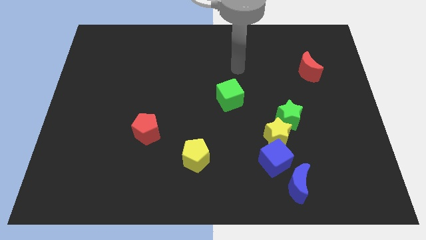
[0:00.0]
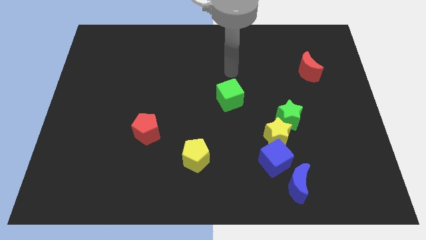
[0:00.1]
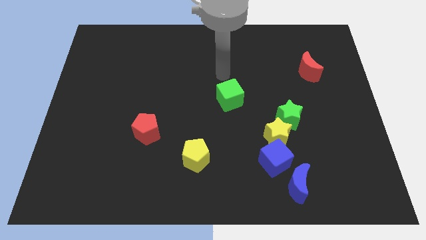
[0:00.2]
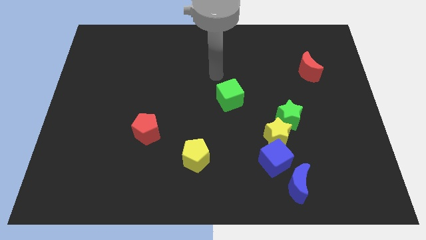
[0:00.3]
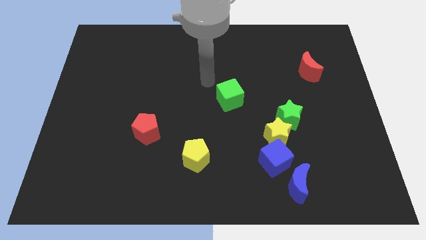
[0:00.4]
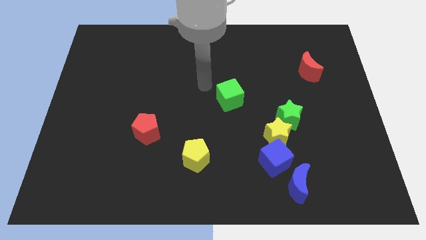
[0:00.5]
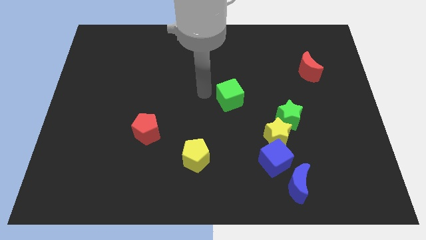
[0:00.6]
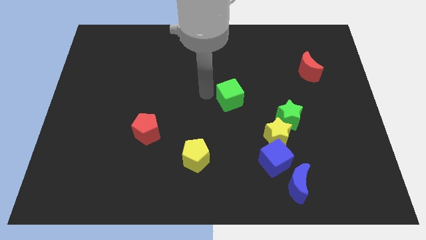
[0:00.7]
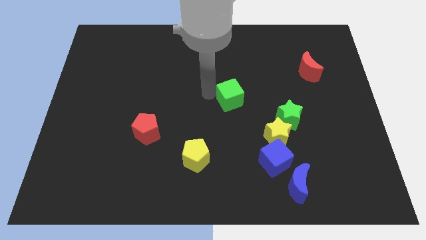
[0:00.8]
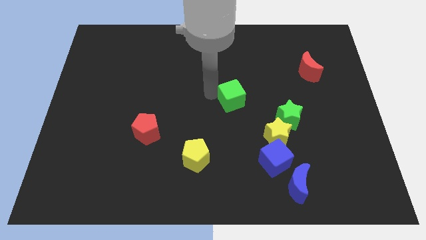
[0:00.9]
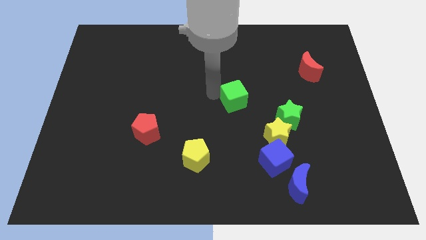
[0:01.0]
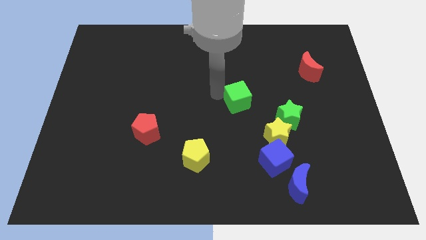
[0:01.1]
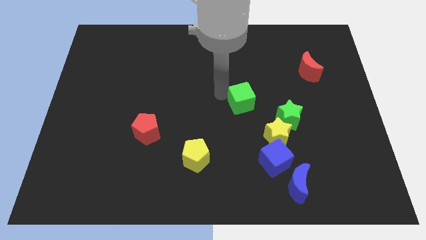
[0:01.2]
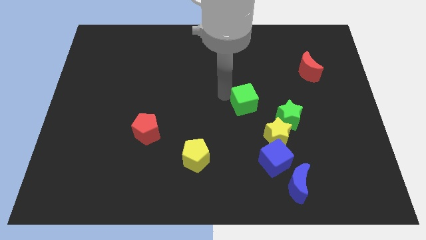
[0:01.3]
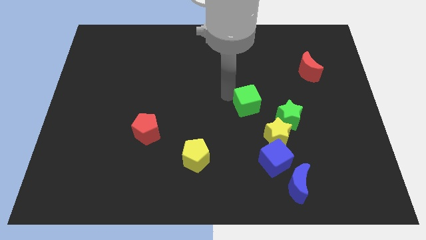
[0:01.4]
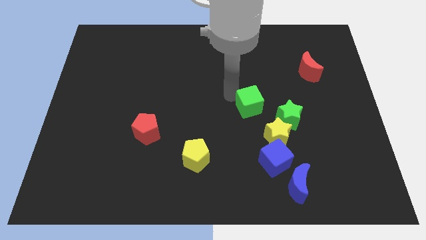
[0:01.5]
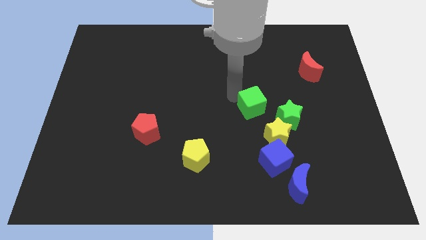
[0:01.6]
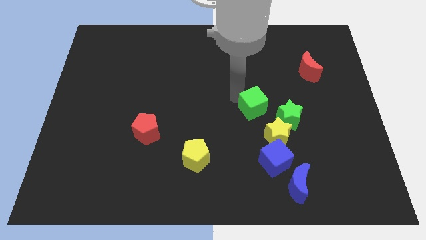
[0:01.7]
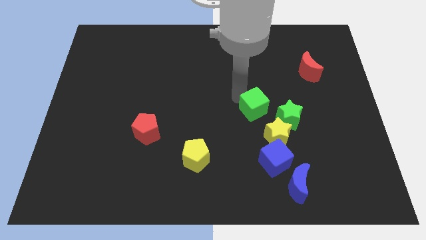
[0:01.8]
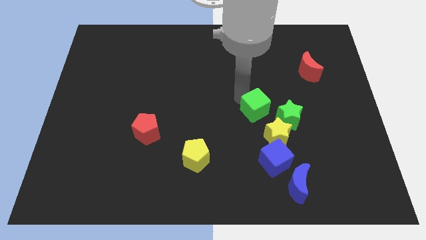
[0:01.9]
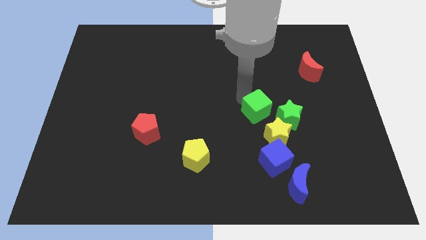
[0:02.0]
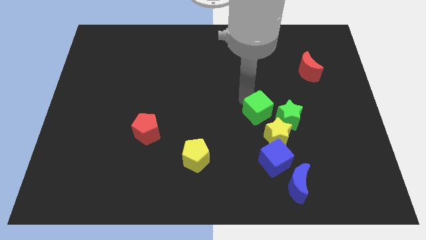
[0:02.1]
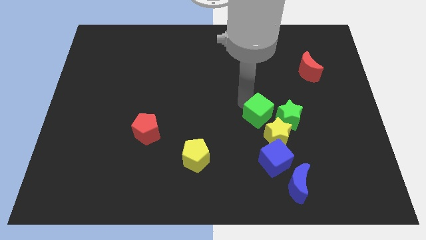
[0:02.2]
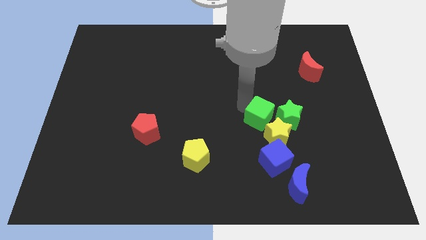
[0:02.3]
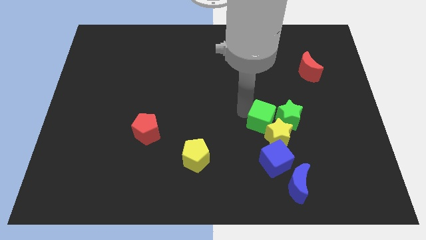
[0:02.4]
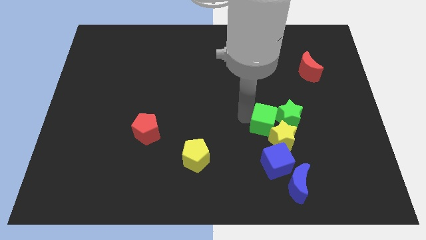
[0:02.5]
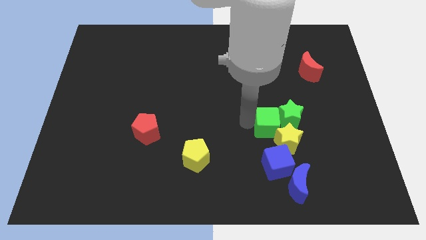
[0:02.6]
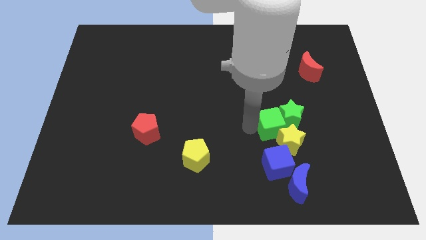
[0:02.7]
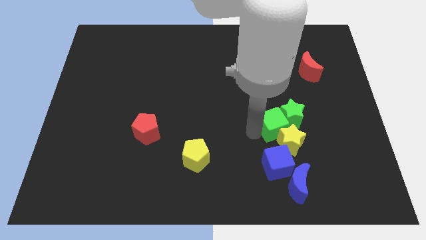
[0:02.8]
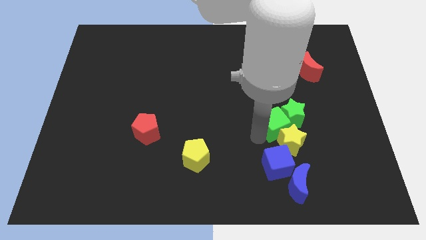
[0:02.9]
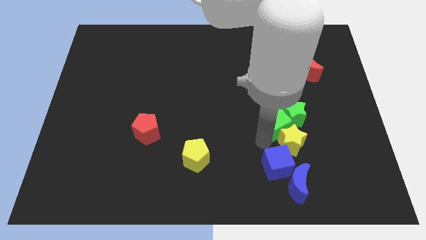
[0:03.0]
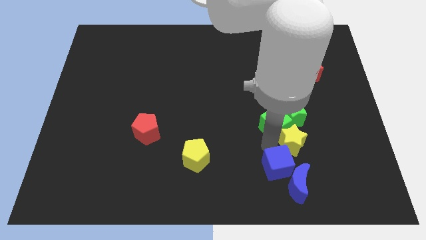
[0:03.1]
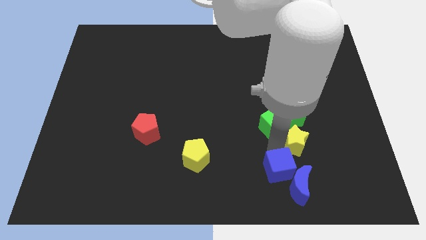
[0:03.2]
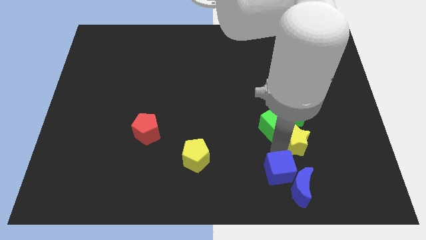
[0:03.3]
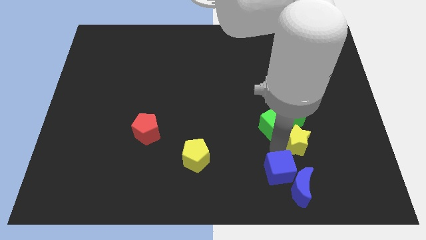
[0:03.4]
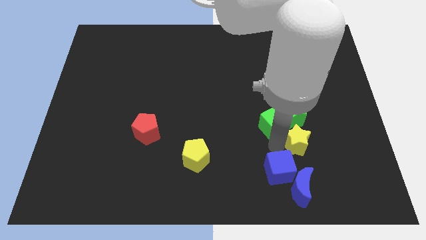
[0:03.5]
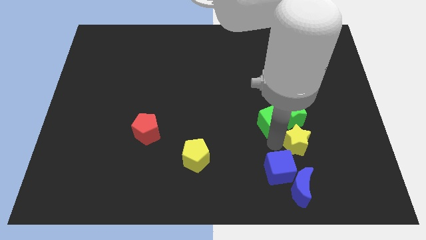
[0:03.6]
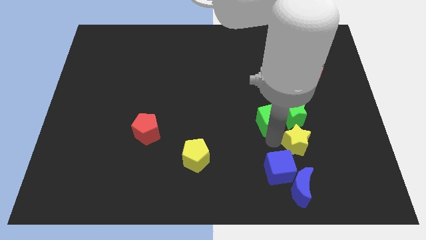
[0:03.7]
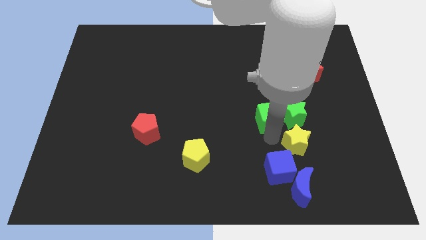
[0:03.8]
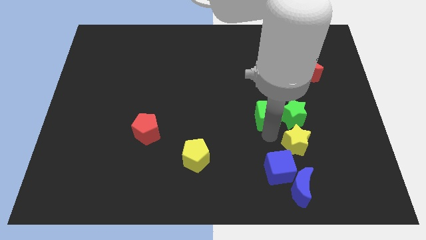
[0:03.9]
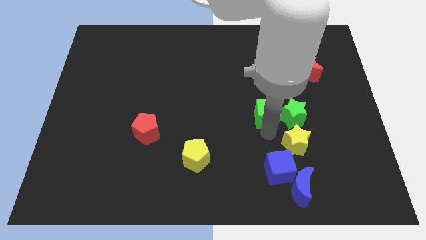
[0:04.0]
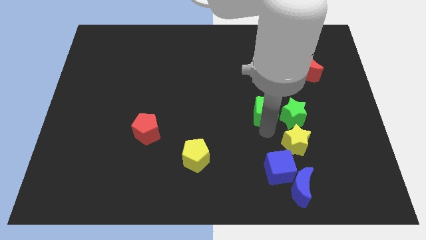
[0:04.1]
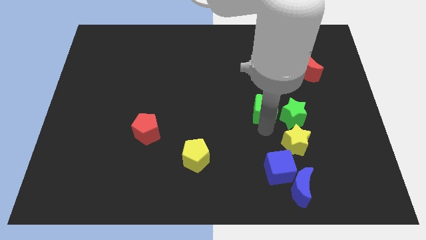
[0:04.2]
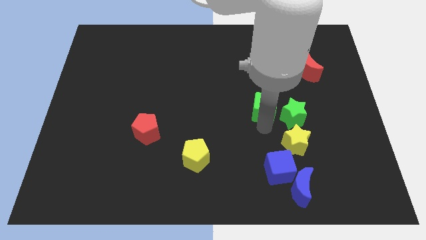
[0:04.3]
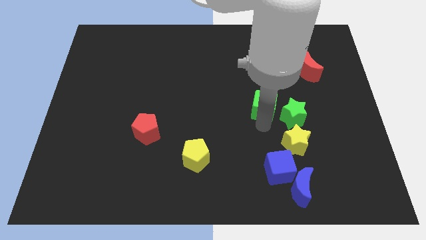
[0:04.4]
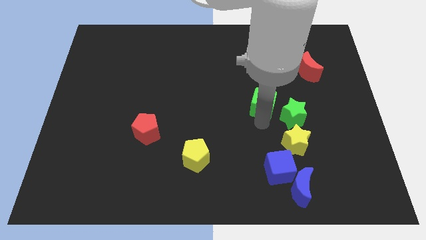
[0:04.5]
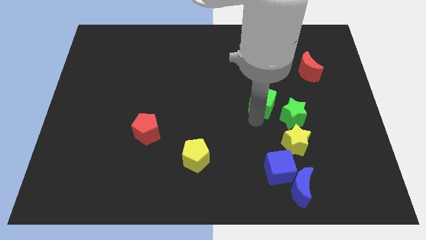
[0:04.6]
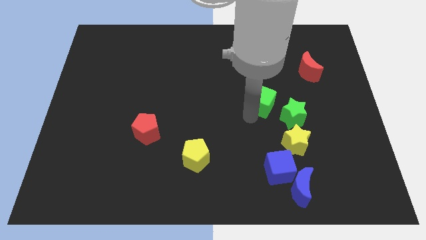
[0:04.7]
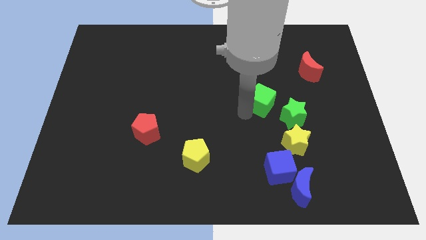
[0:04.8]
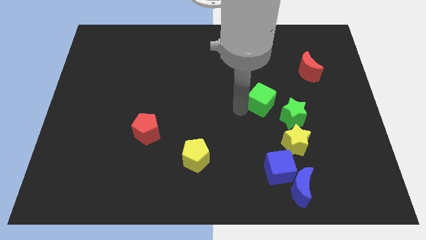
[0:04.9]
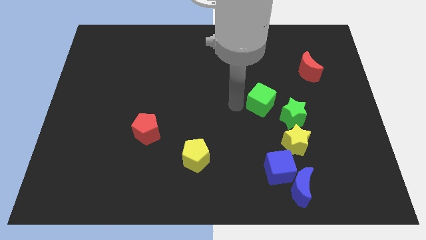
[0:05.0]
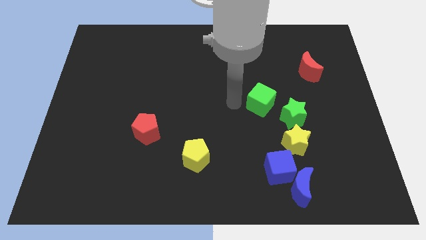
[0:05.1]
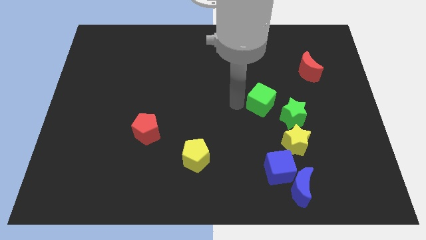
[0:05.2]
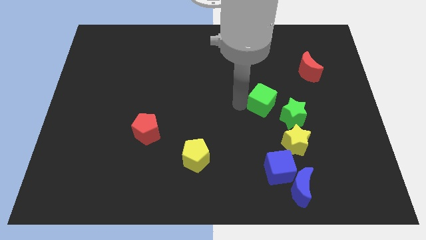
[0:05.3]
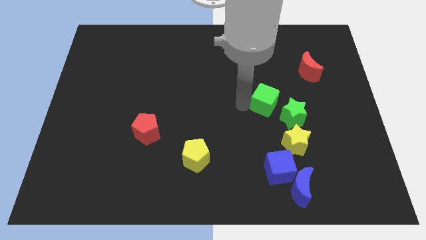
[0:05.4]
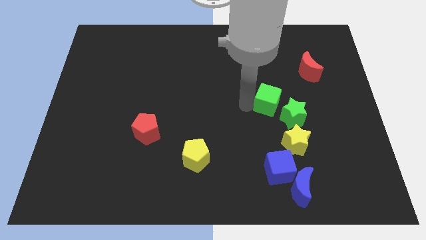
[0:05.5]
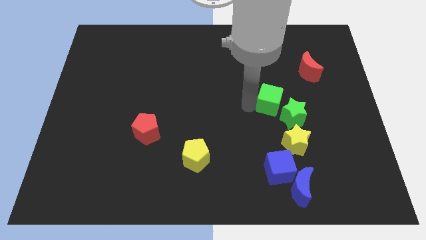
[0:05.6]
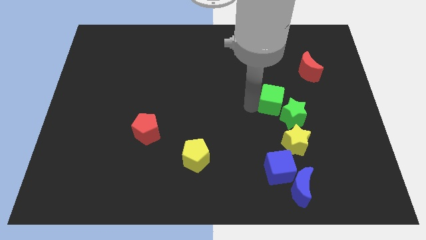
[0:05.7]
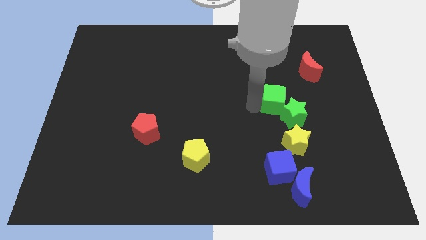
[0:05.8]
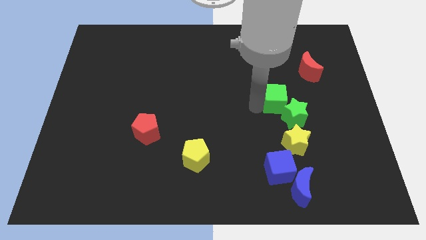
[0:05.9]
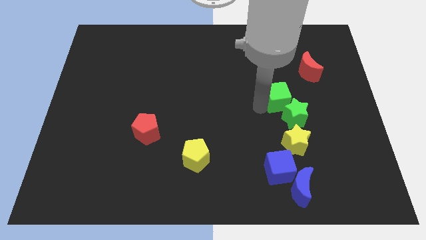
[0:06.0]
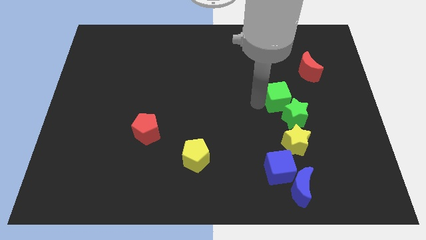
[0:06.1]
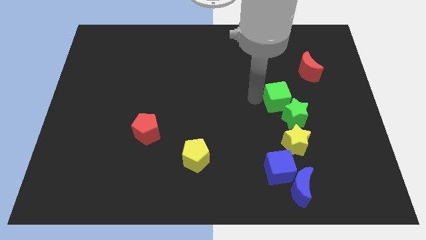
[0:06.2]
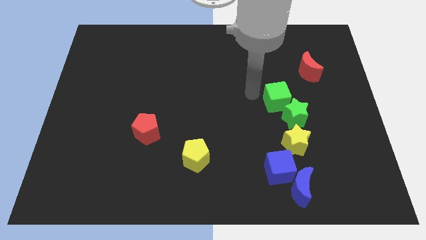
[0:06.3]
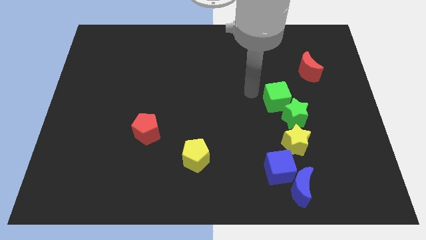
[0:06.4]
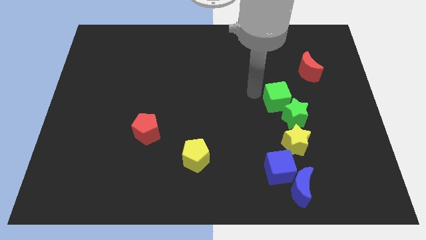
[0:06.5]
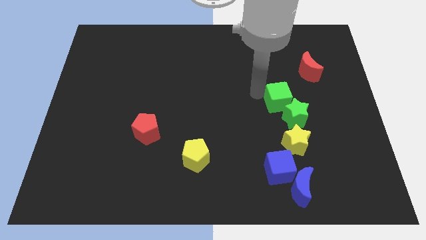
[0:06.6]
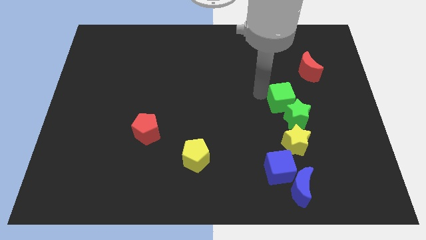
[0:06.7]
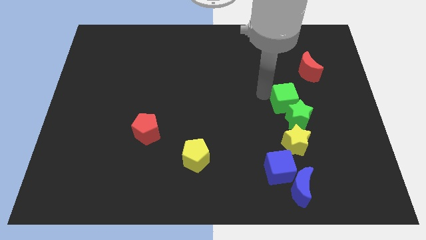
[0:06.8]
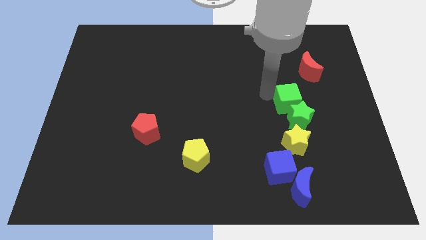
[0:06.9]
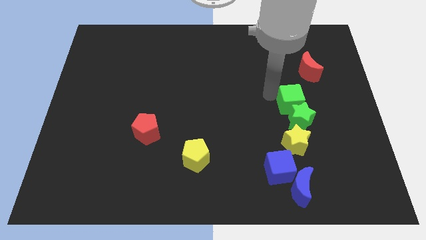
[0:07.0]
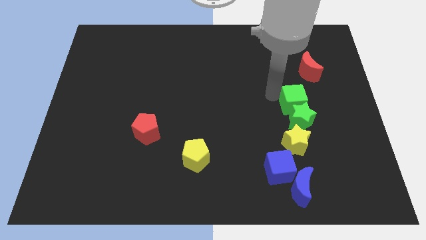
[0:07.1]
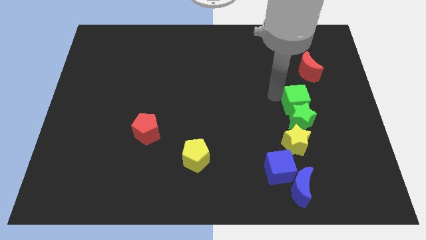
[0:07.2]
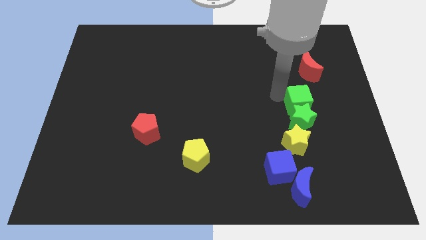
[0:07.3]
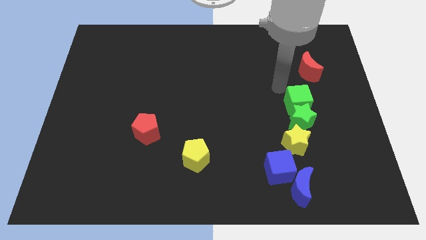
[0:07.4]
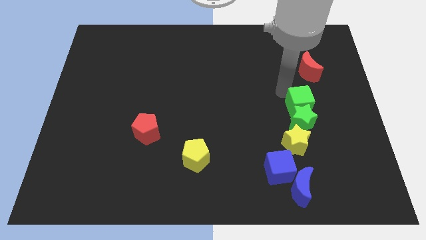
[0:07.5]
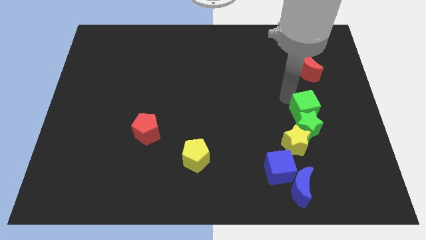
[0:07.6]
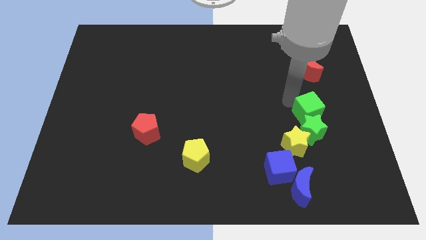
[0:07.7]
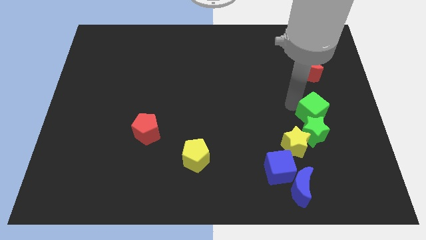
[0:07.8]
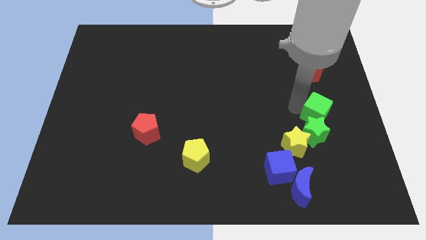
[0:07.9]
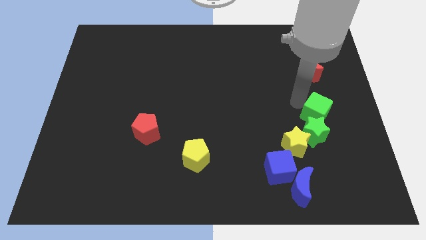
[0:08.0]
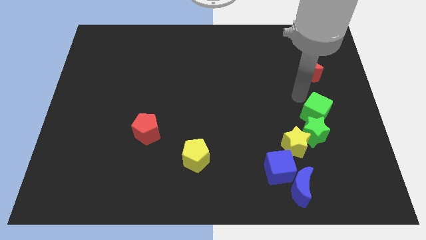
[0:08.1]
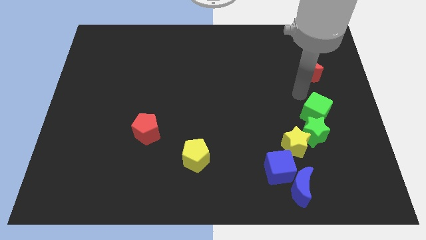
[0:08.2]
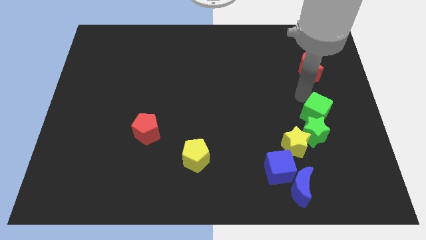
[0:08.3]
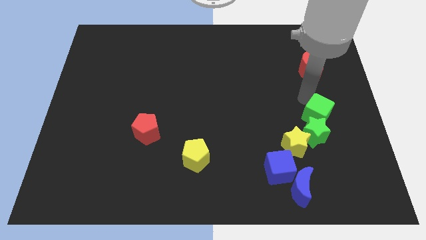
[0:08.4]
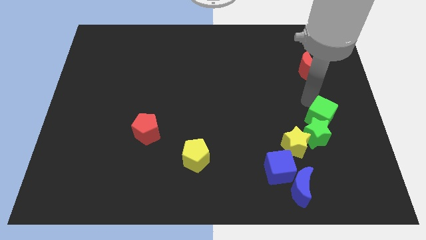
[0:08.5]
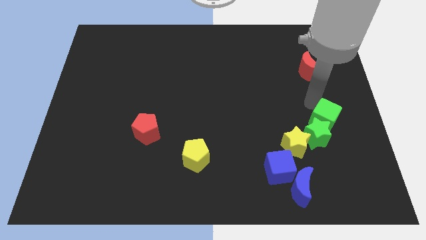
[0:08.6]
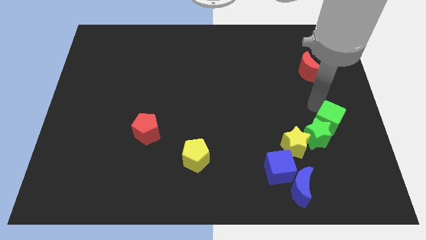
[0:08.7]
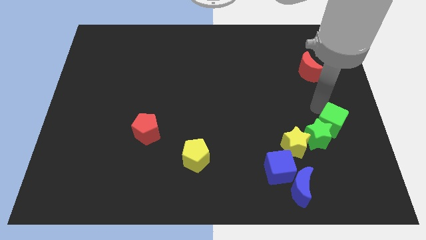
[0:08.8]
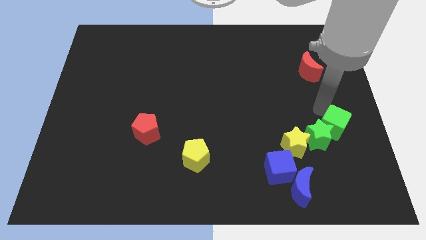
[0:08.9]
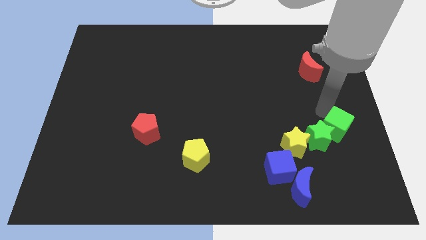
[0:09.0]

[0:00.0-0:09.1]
put the green cube just right of the yellow star
